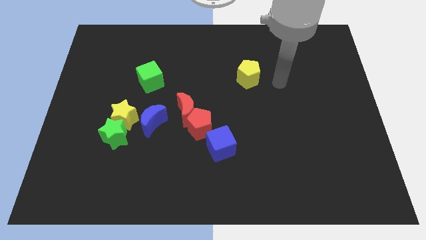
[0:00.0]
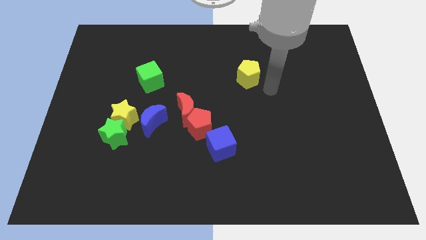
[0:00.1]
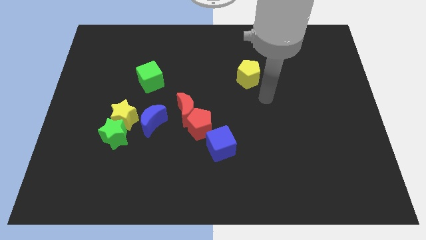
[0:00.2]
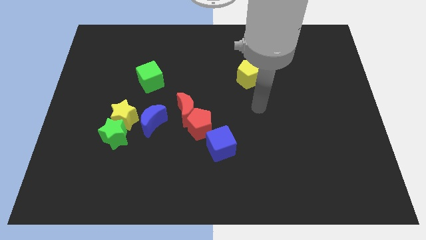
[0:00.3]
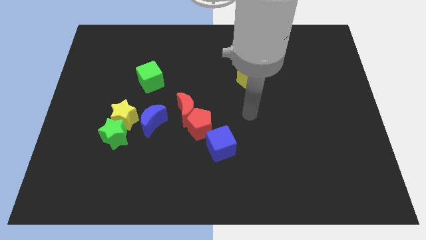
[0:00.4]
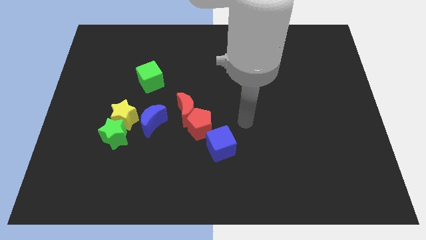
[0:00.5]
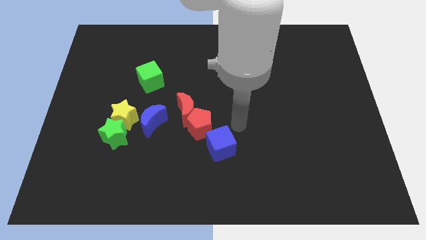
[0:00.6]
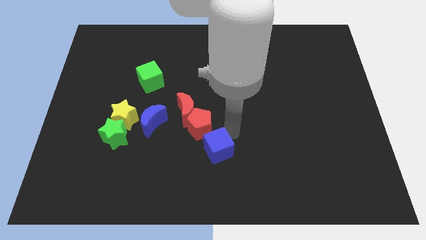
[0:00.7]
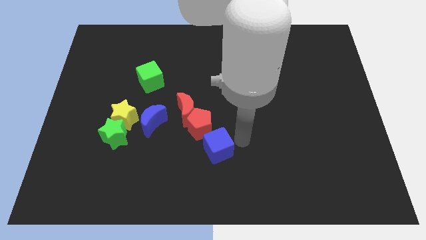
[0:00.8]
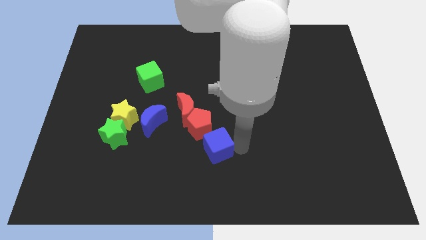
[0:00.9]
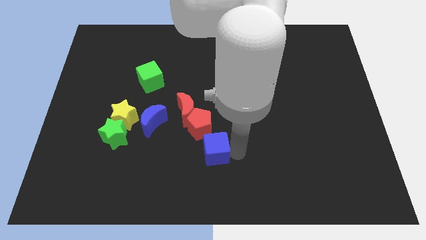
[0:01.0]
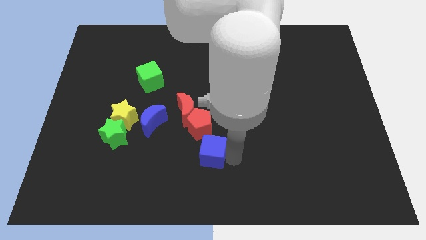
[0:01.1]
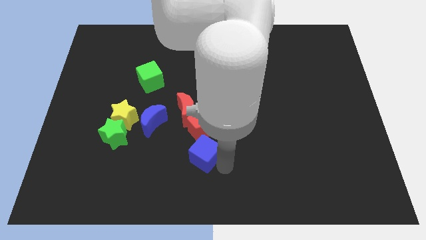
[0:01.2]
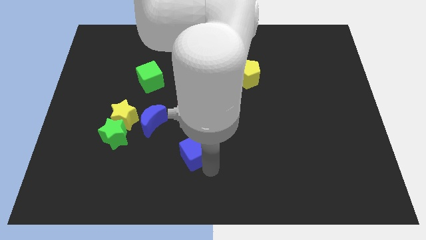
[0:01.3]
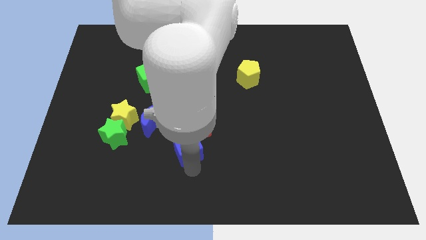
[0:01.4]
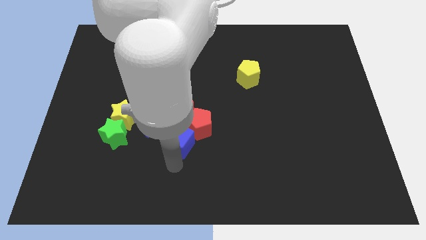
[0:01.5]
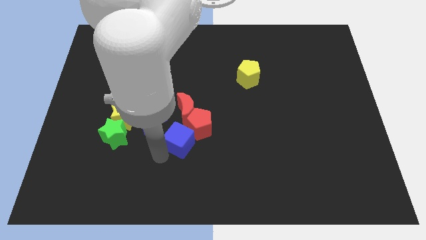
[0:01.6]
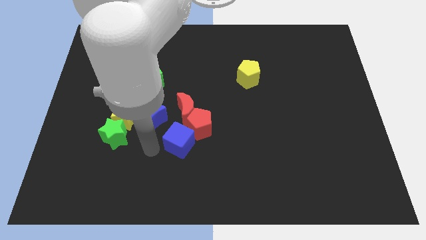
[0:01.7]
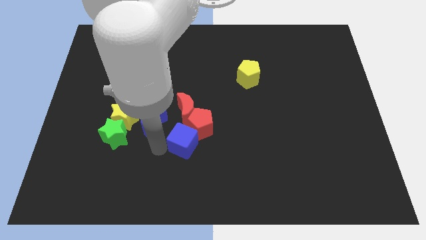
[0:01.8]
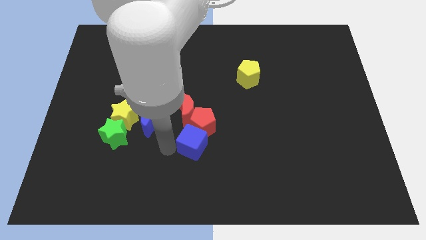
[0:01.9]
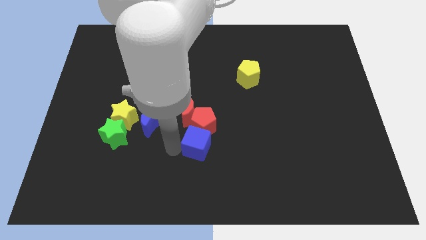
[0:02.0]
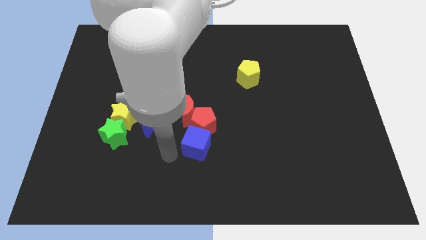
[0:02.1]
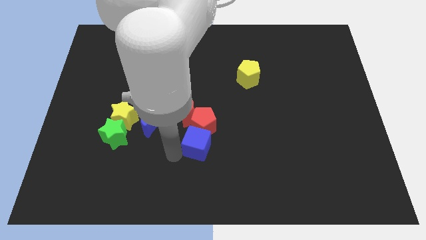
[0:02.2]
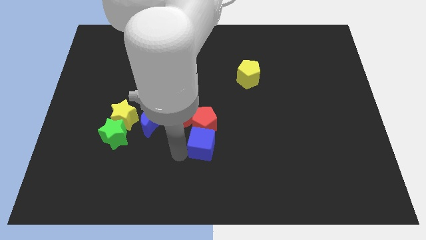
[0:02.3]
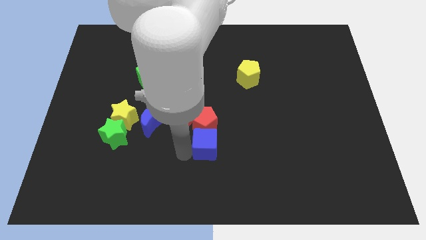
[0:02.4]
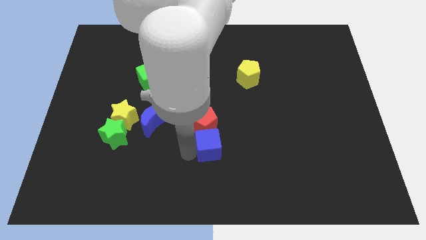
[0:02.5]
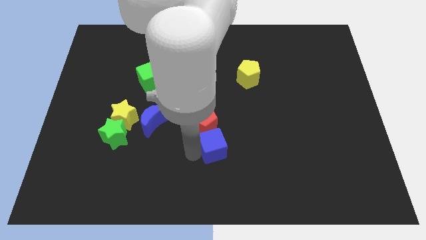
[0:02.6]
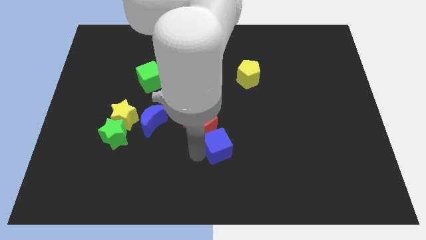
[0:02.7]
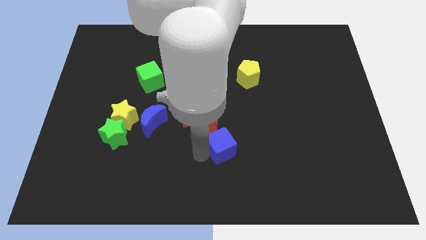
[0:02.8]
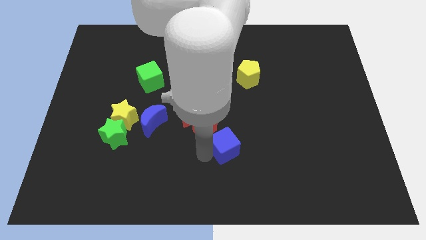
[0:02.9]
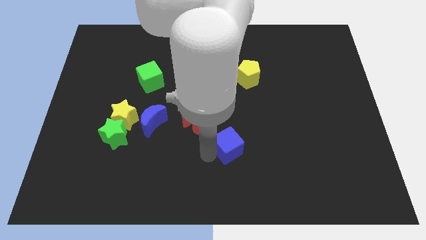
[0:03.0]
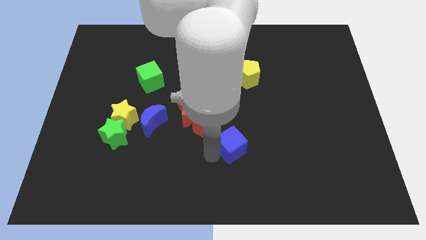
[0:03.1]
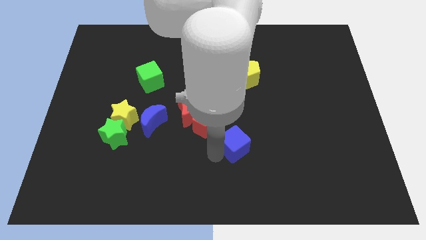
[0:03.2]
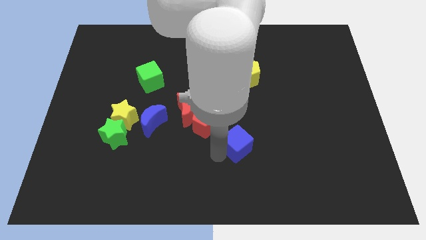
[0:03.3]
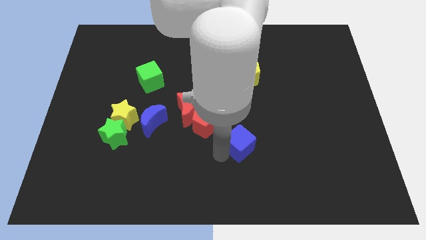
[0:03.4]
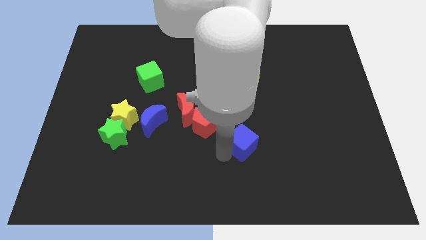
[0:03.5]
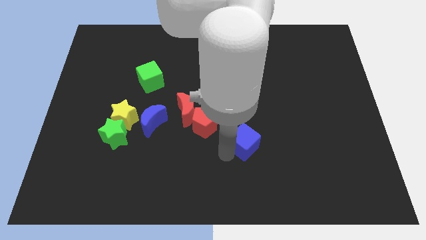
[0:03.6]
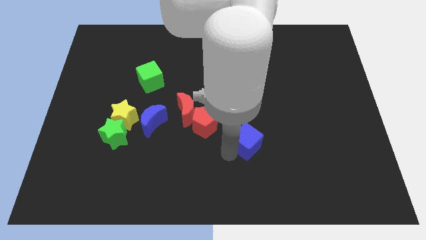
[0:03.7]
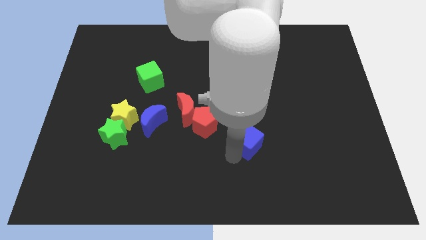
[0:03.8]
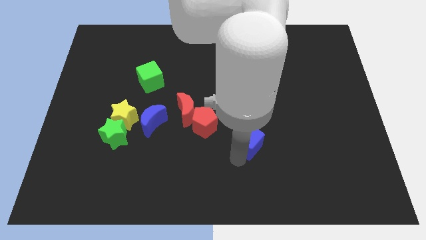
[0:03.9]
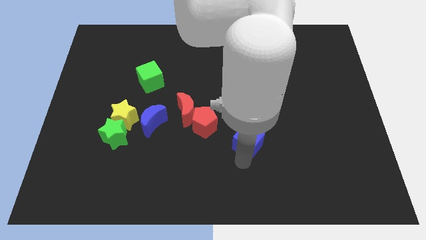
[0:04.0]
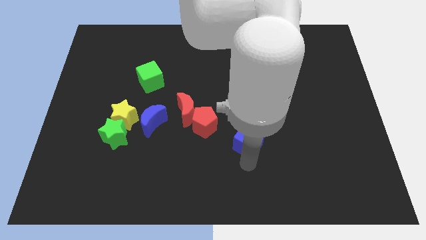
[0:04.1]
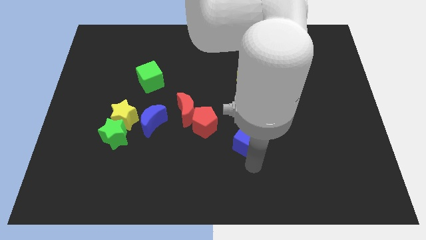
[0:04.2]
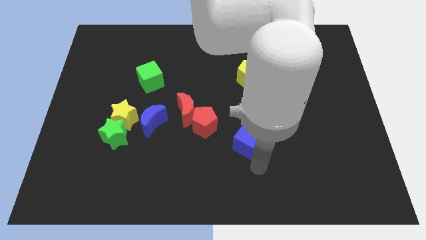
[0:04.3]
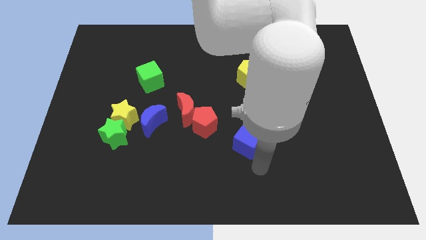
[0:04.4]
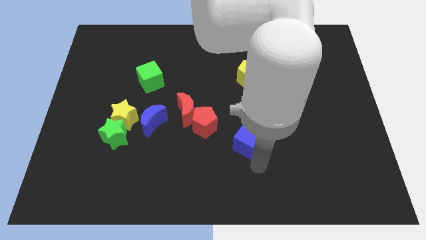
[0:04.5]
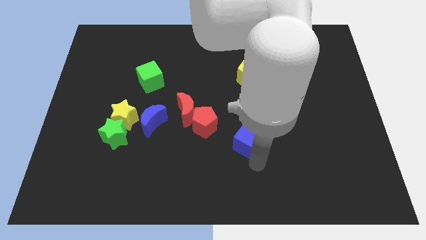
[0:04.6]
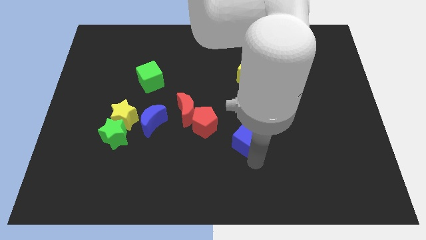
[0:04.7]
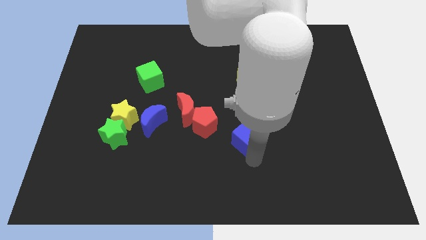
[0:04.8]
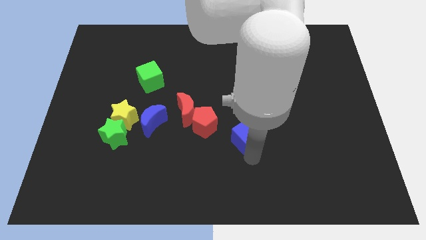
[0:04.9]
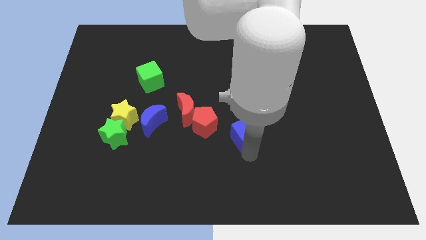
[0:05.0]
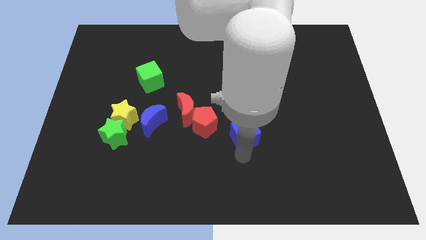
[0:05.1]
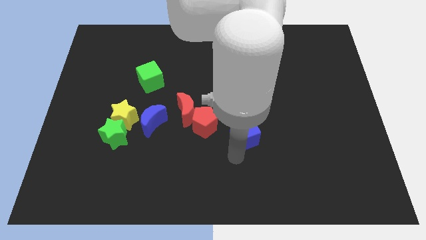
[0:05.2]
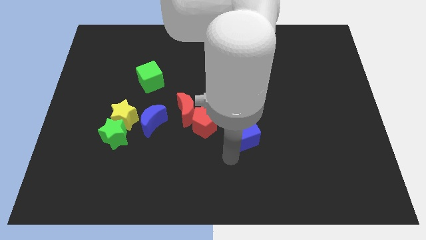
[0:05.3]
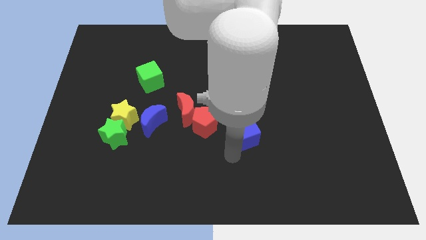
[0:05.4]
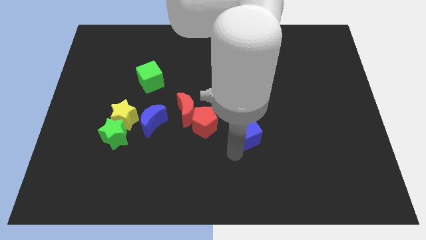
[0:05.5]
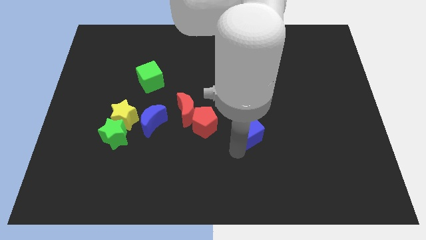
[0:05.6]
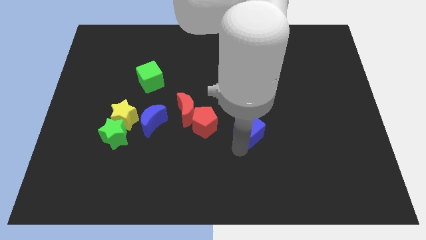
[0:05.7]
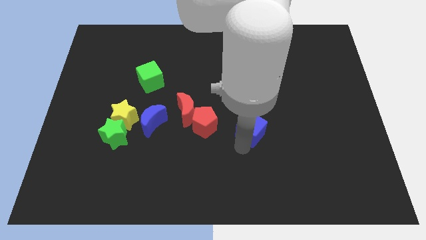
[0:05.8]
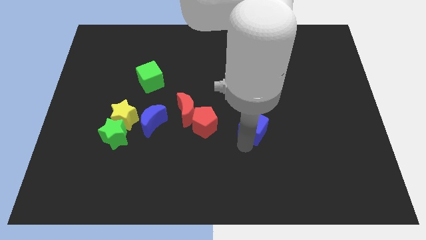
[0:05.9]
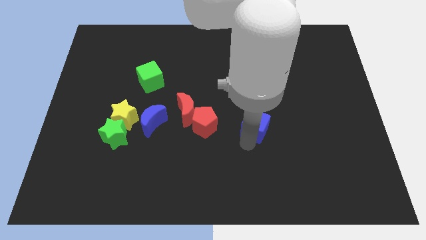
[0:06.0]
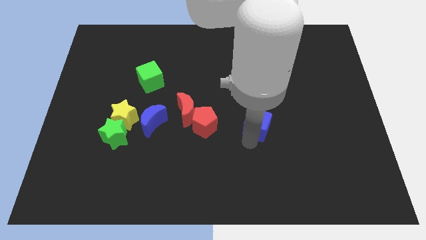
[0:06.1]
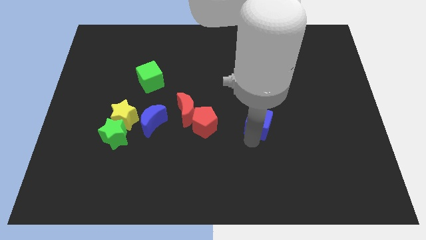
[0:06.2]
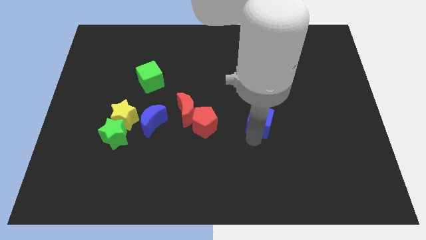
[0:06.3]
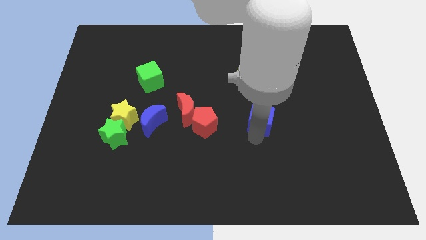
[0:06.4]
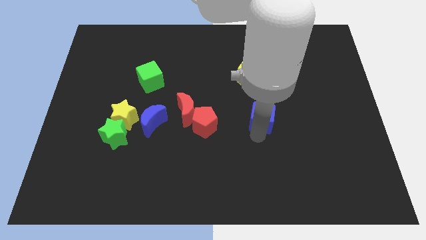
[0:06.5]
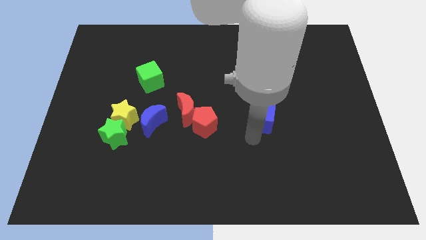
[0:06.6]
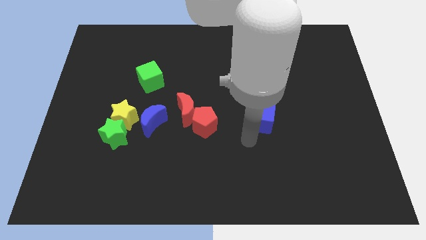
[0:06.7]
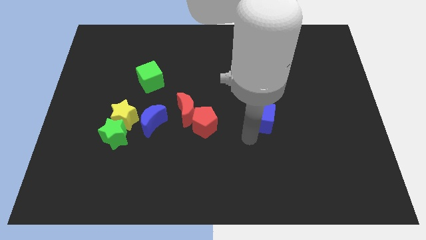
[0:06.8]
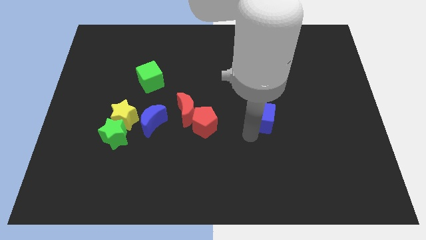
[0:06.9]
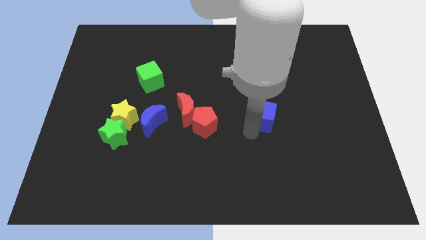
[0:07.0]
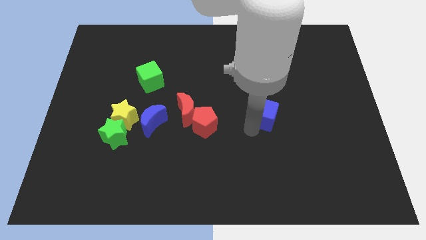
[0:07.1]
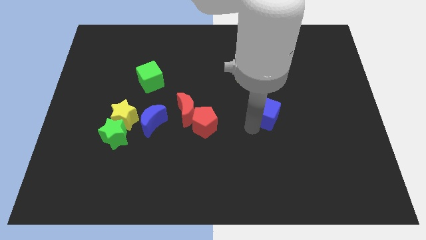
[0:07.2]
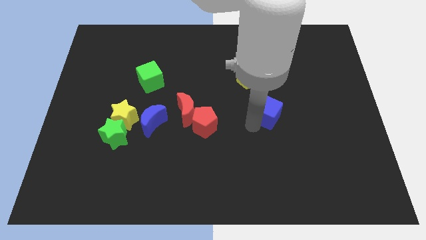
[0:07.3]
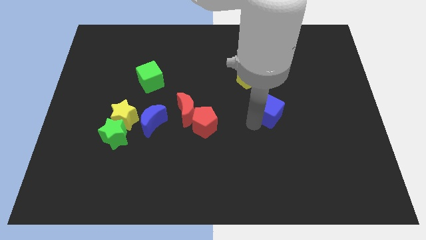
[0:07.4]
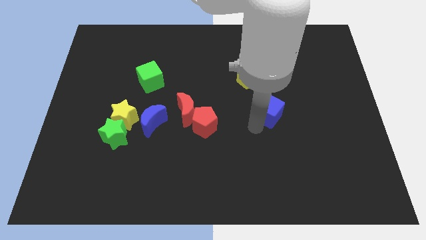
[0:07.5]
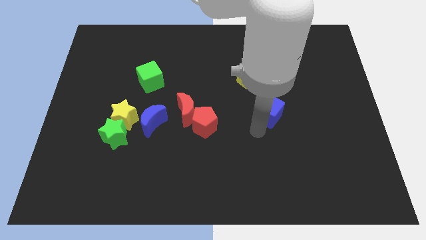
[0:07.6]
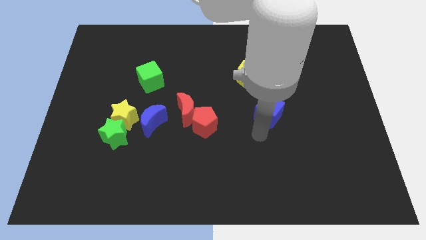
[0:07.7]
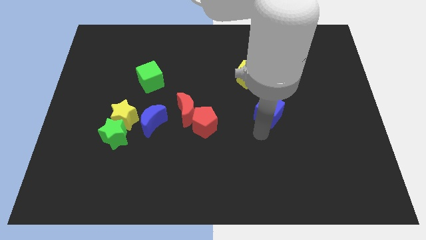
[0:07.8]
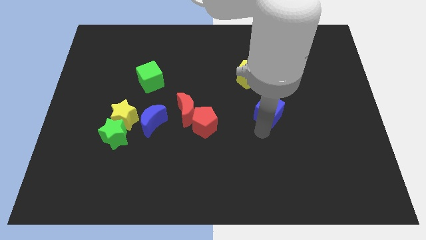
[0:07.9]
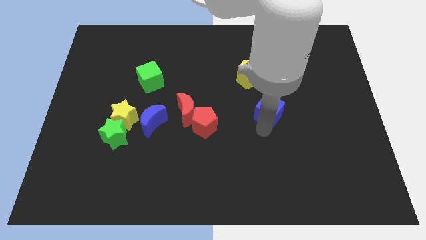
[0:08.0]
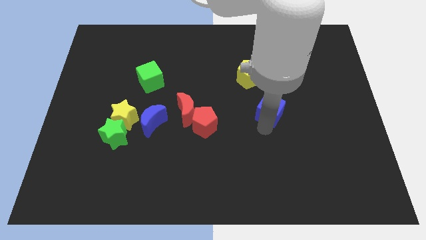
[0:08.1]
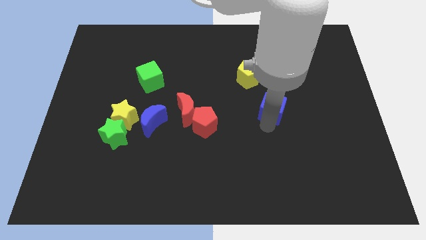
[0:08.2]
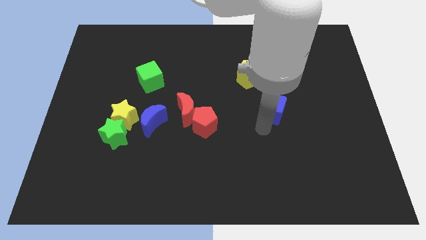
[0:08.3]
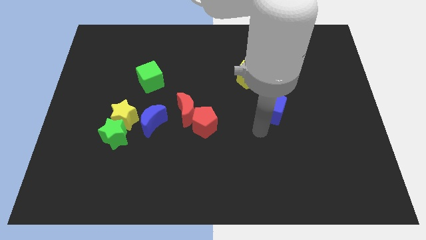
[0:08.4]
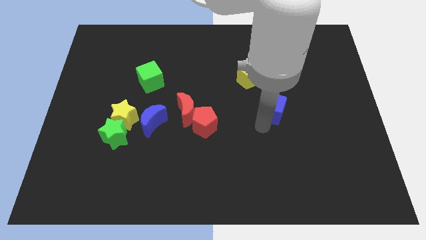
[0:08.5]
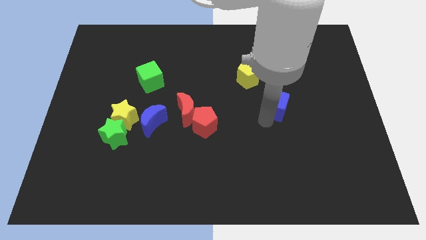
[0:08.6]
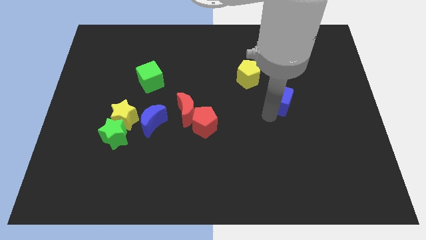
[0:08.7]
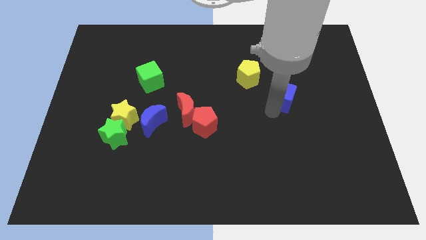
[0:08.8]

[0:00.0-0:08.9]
slide the blue cube diagonally up and to the right
